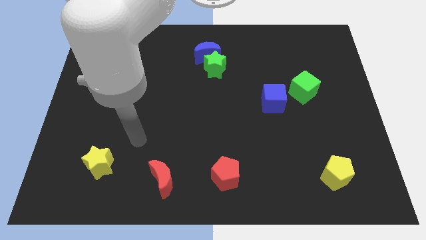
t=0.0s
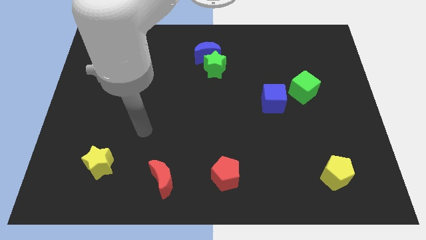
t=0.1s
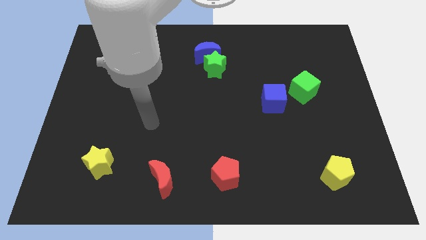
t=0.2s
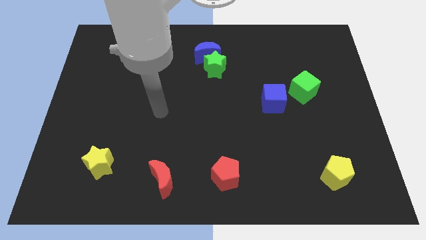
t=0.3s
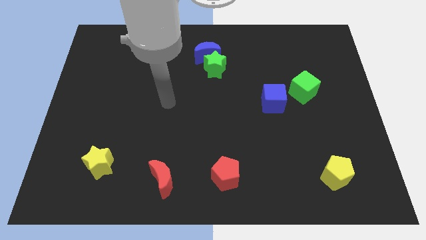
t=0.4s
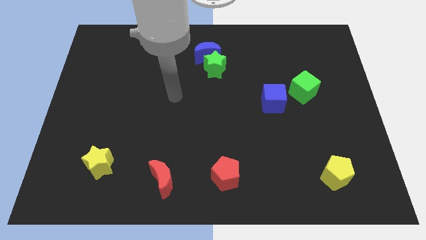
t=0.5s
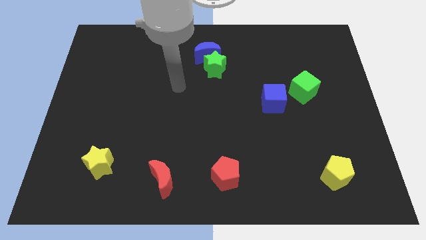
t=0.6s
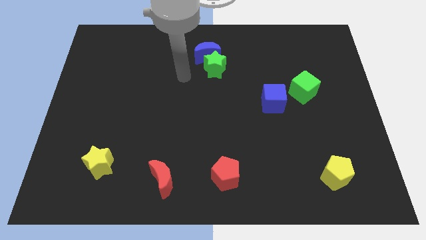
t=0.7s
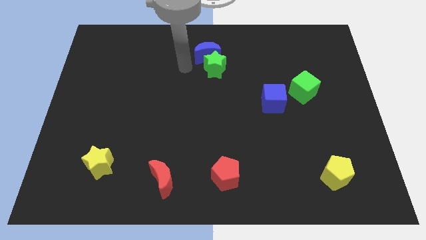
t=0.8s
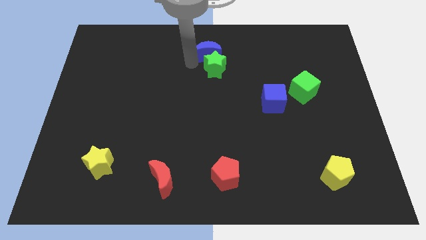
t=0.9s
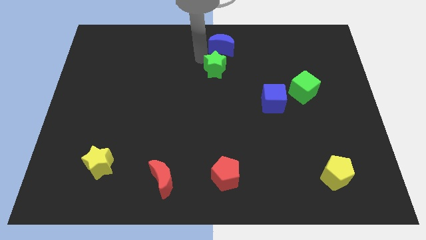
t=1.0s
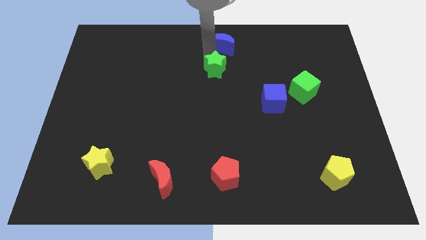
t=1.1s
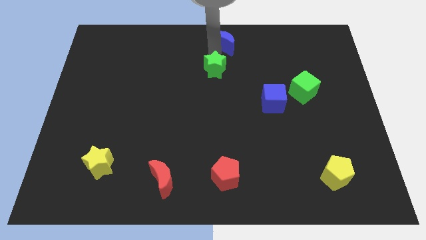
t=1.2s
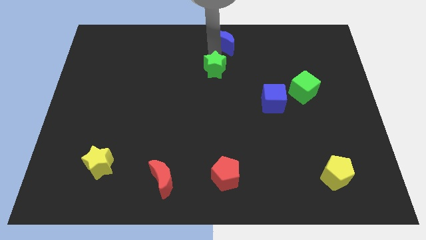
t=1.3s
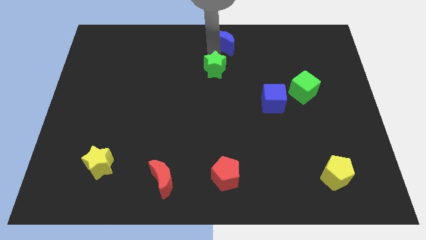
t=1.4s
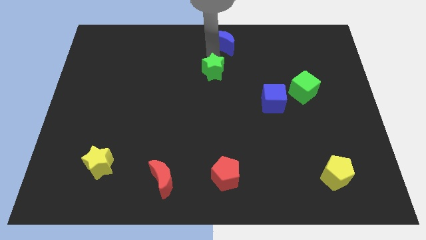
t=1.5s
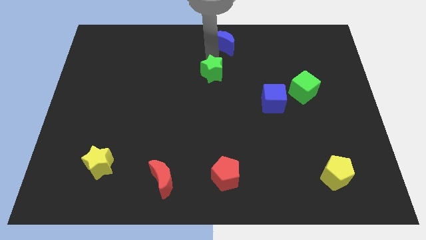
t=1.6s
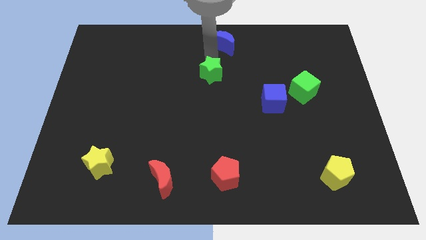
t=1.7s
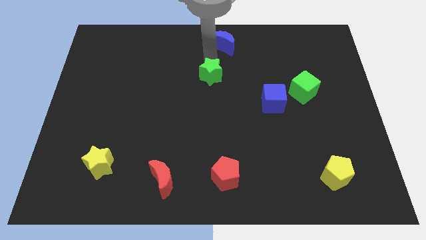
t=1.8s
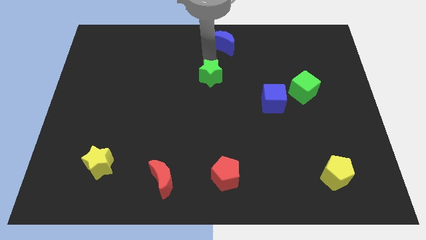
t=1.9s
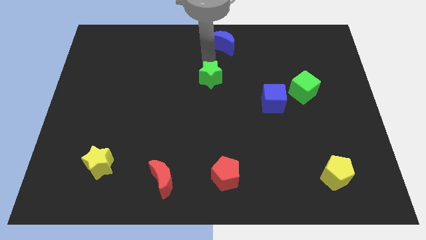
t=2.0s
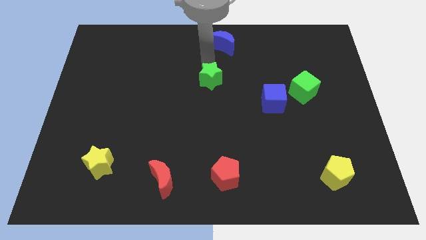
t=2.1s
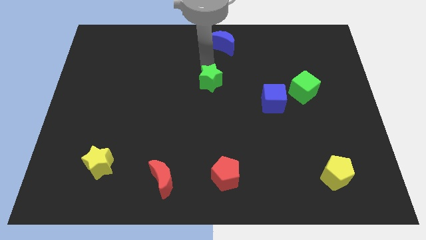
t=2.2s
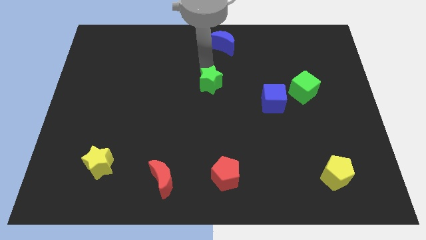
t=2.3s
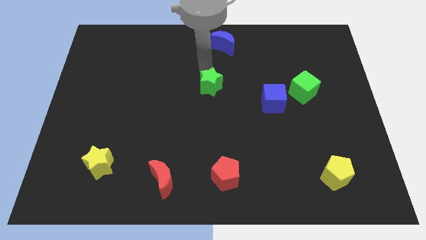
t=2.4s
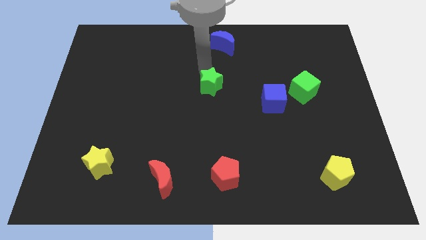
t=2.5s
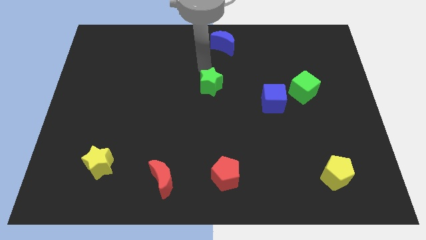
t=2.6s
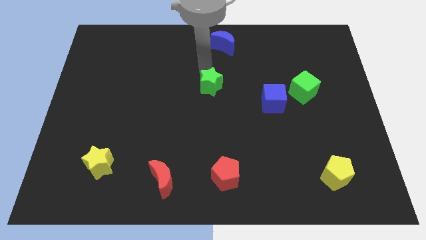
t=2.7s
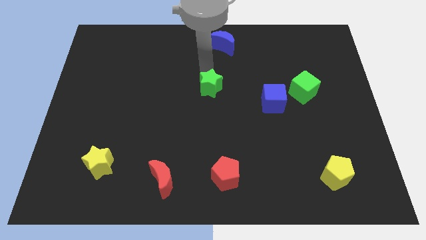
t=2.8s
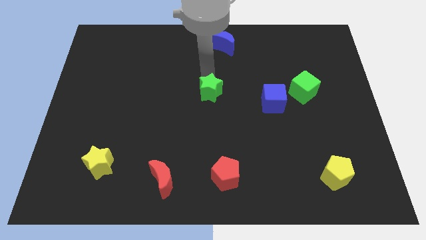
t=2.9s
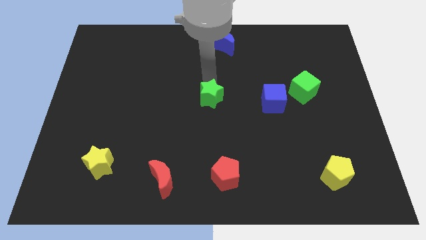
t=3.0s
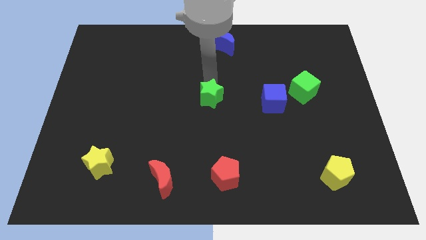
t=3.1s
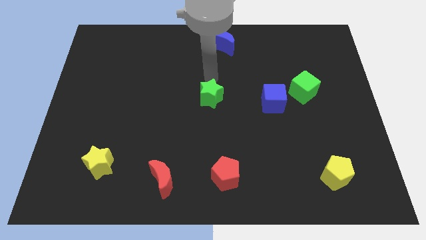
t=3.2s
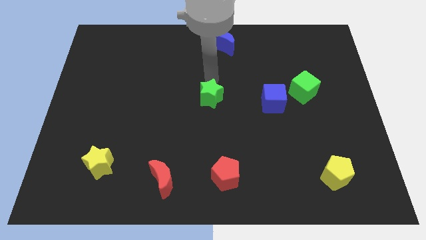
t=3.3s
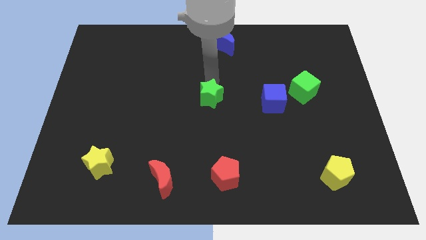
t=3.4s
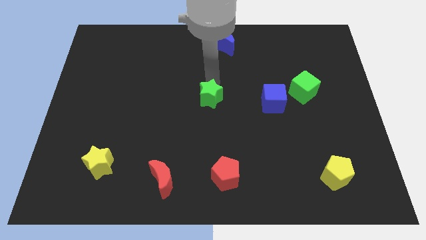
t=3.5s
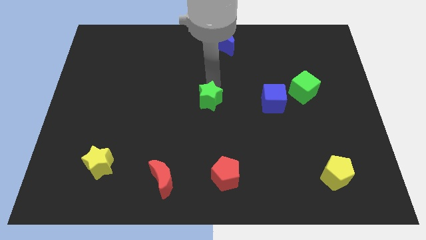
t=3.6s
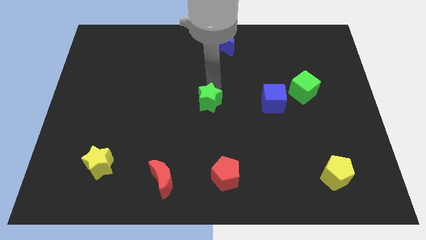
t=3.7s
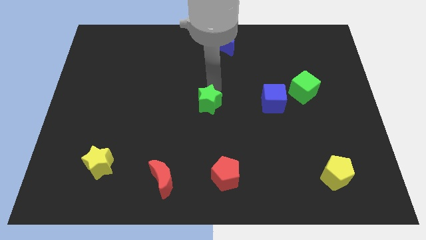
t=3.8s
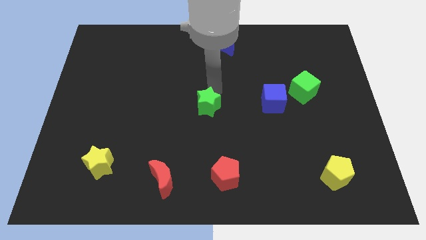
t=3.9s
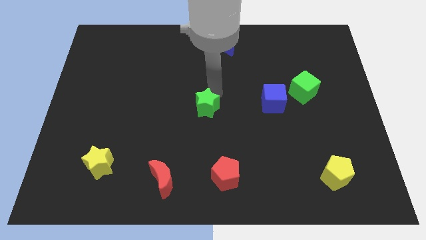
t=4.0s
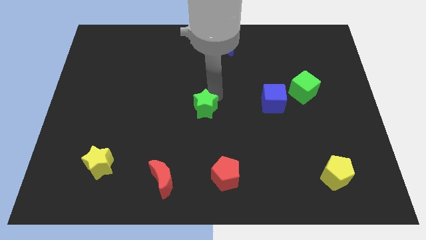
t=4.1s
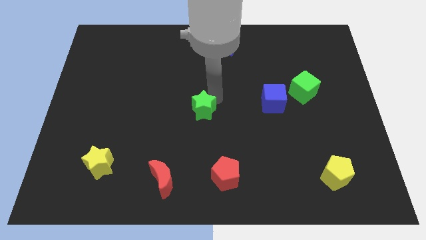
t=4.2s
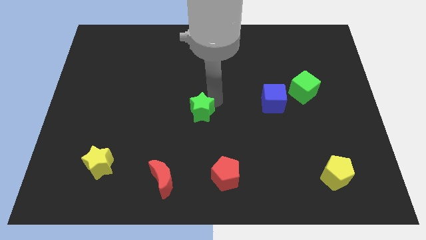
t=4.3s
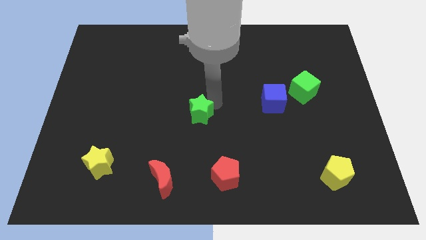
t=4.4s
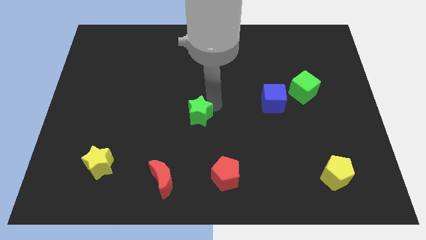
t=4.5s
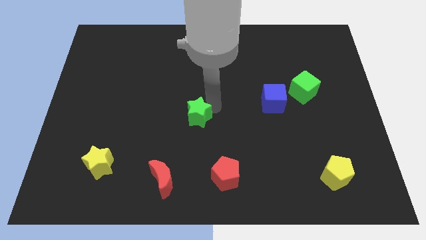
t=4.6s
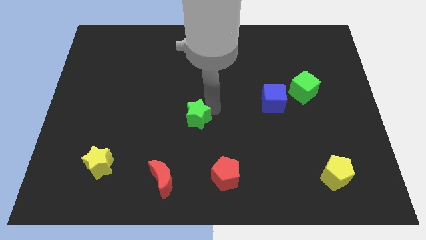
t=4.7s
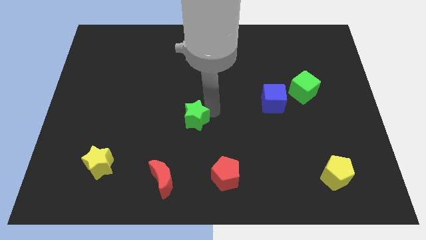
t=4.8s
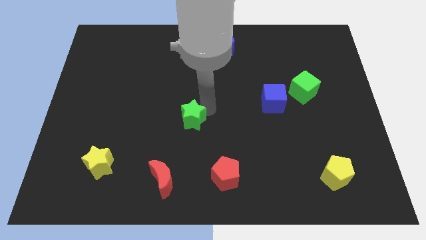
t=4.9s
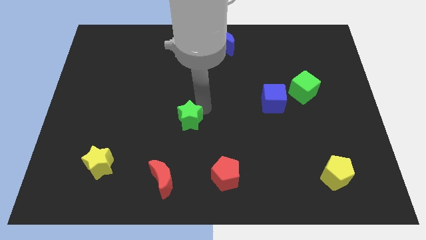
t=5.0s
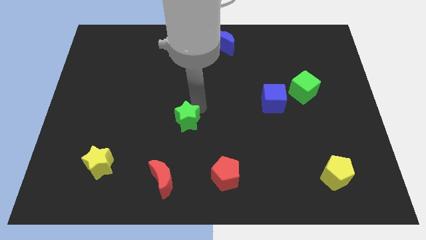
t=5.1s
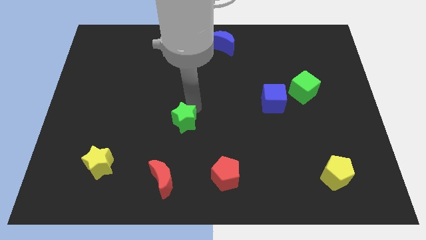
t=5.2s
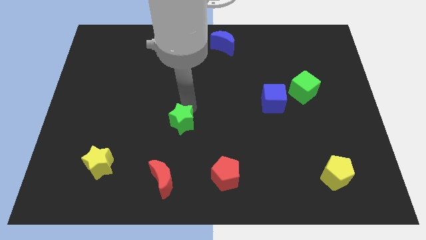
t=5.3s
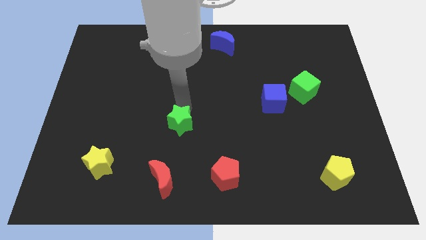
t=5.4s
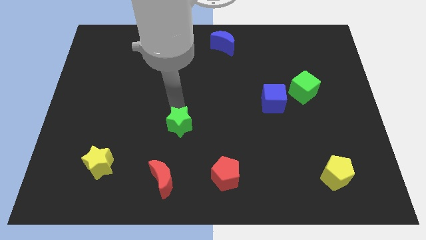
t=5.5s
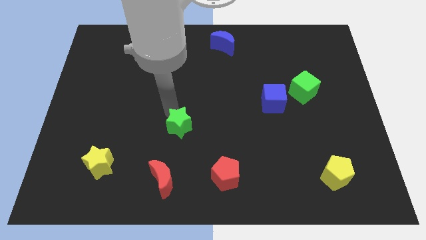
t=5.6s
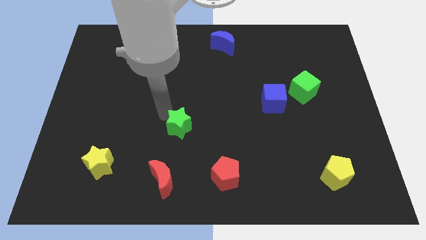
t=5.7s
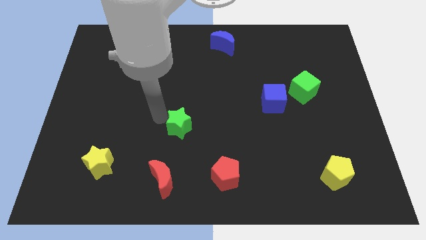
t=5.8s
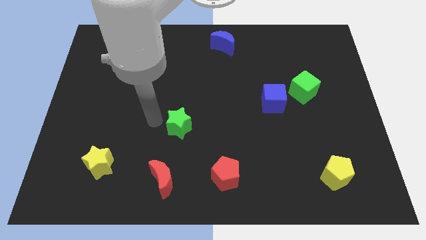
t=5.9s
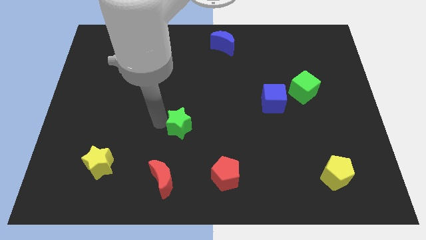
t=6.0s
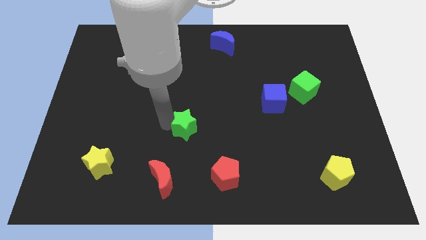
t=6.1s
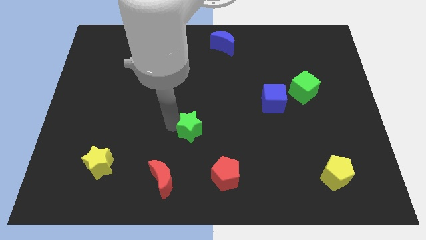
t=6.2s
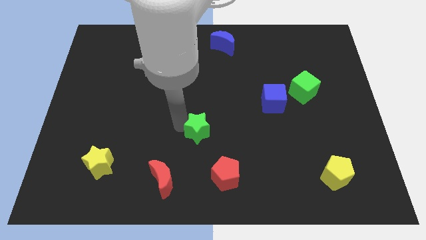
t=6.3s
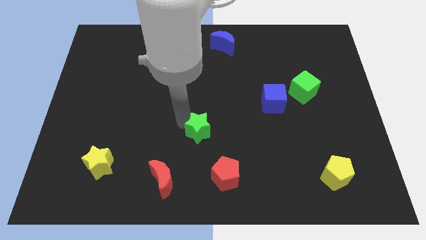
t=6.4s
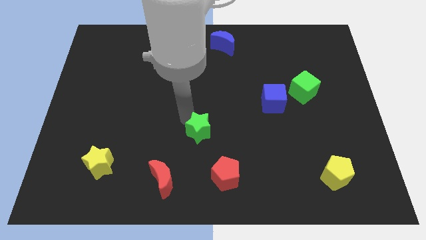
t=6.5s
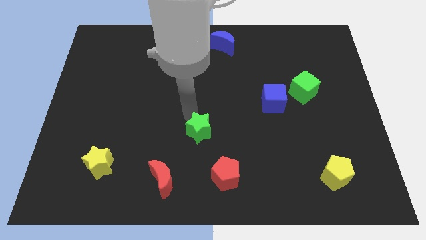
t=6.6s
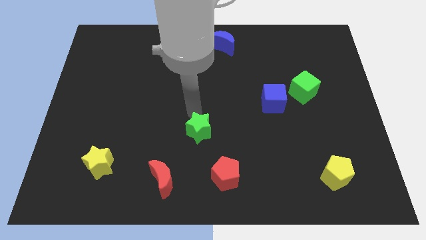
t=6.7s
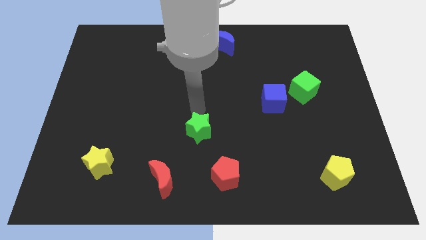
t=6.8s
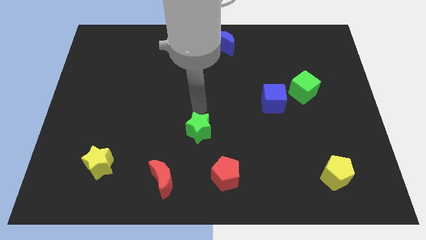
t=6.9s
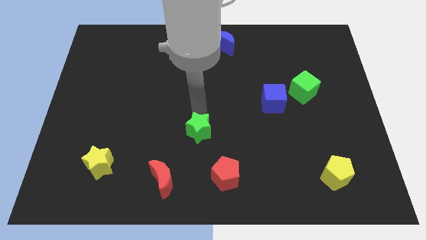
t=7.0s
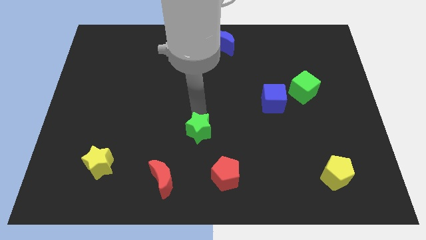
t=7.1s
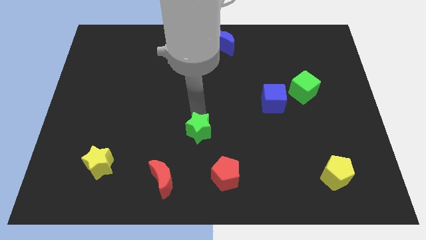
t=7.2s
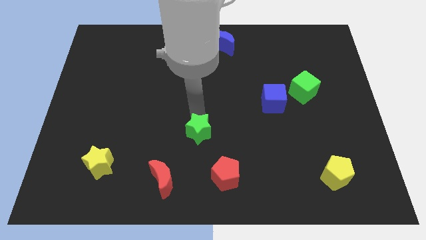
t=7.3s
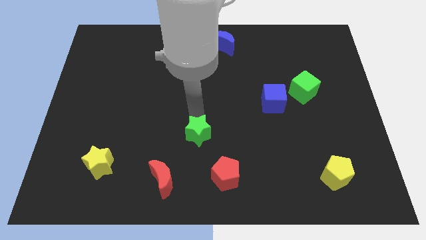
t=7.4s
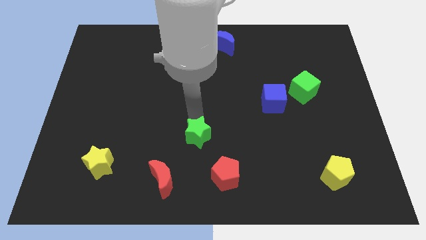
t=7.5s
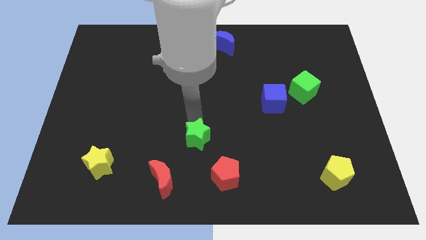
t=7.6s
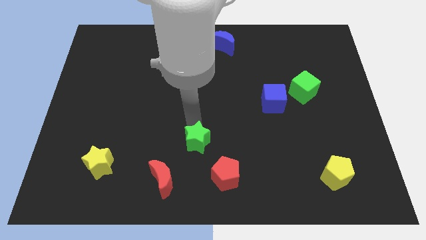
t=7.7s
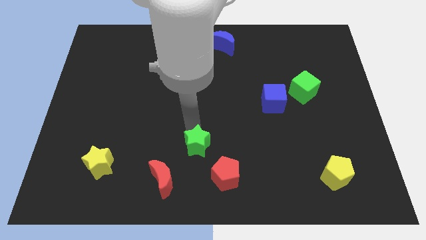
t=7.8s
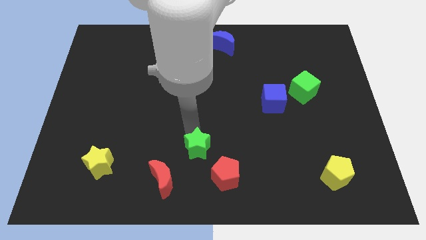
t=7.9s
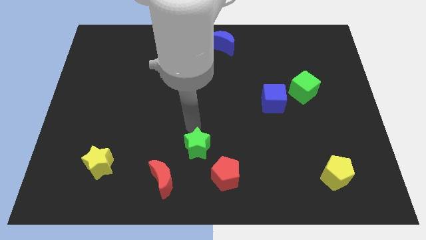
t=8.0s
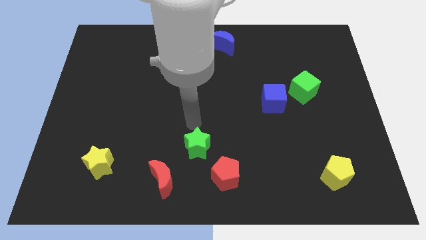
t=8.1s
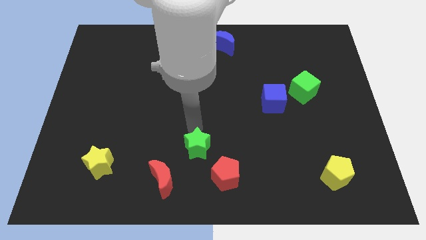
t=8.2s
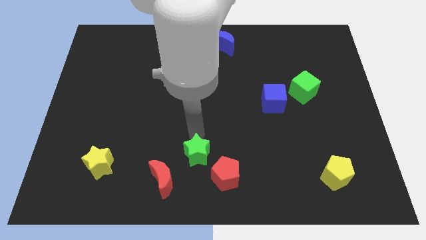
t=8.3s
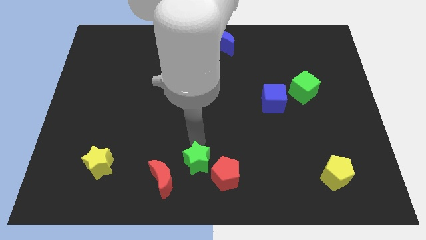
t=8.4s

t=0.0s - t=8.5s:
slide the green star to the bottom
